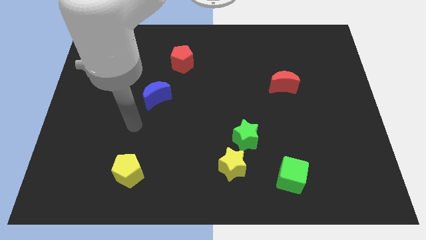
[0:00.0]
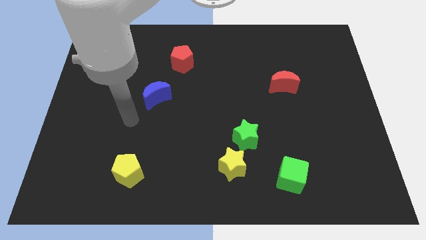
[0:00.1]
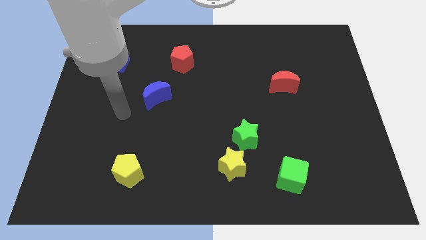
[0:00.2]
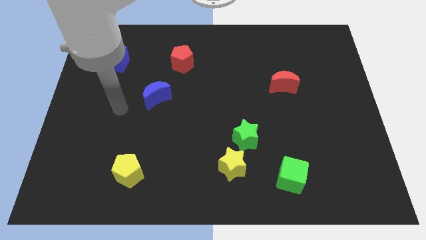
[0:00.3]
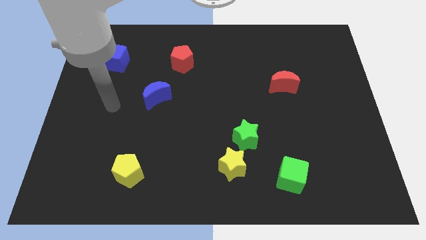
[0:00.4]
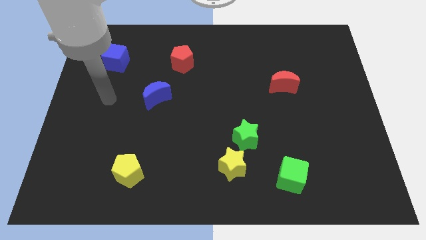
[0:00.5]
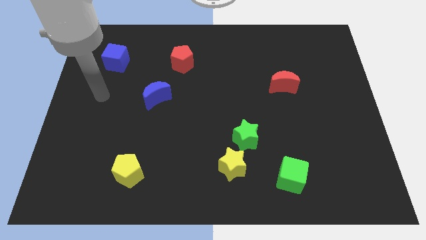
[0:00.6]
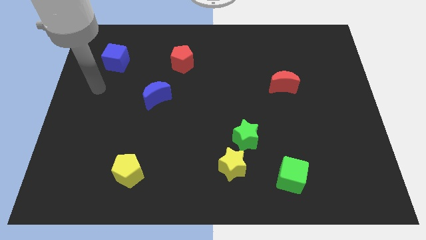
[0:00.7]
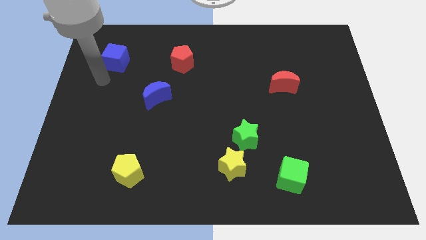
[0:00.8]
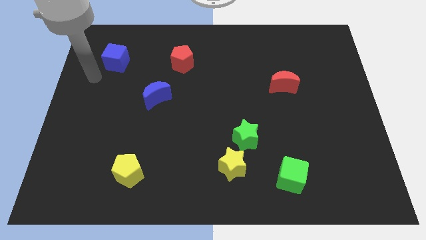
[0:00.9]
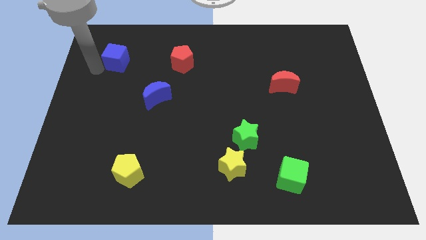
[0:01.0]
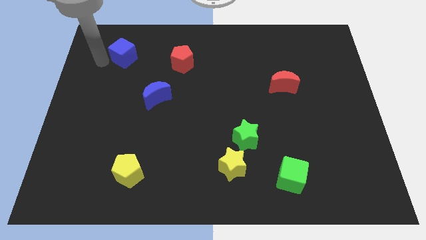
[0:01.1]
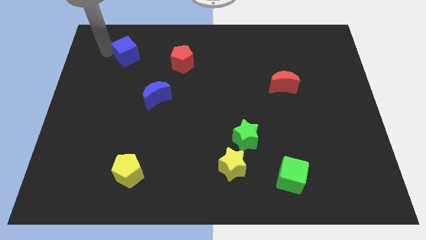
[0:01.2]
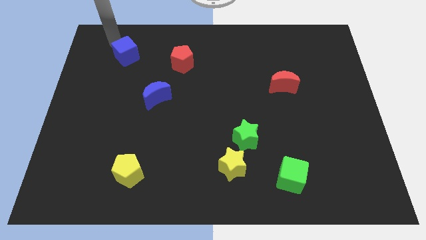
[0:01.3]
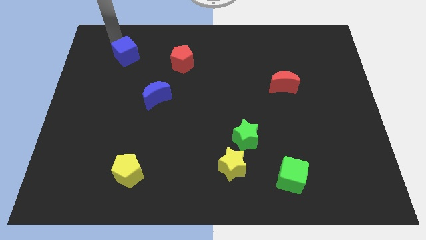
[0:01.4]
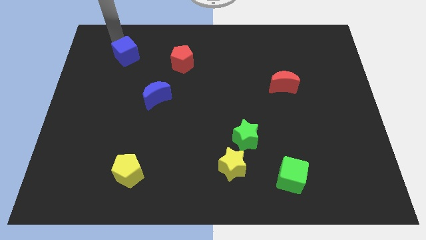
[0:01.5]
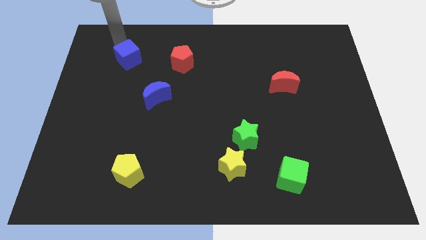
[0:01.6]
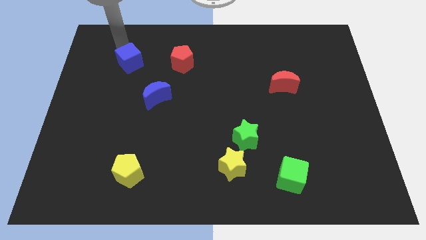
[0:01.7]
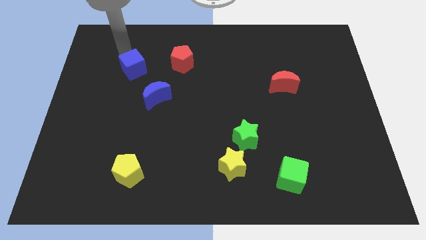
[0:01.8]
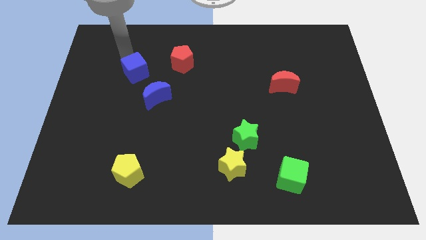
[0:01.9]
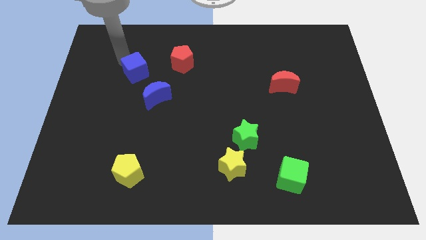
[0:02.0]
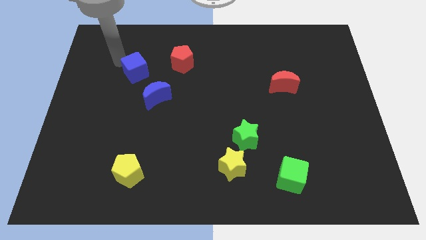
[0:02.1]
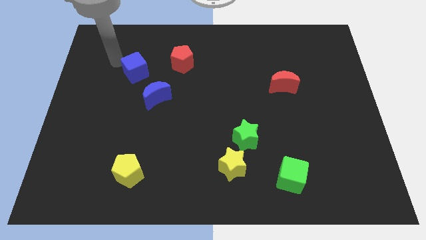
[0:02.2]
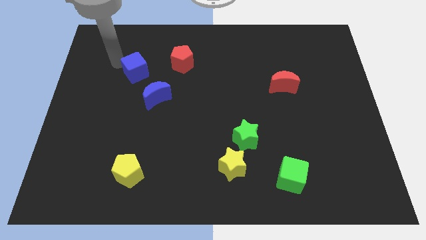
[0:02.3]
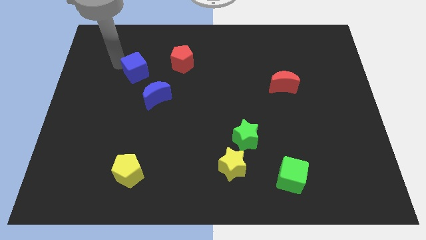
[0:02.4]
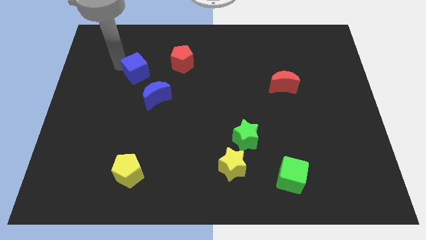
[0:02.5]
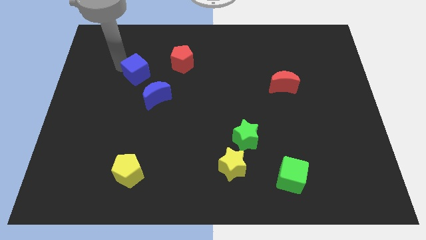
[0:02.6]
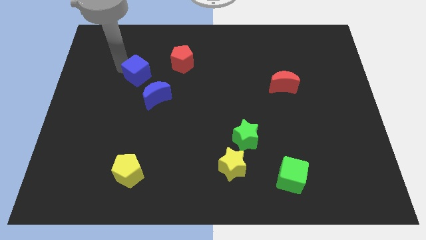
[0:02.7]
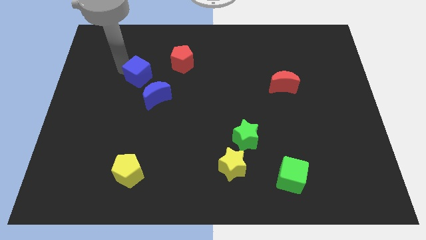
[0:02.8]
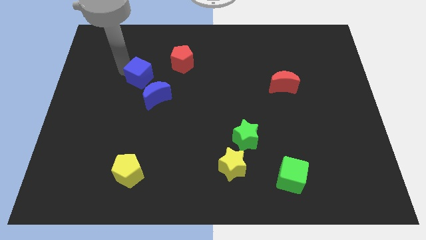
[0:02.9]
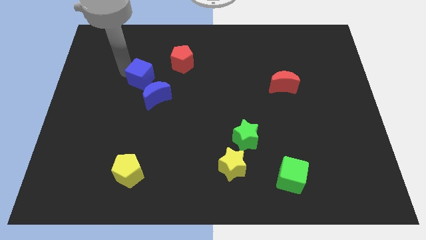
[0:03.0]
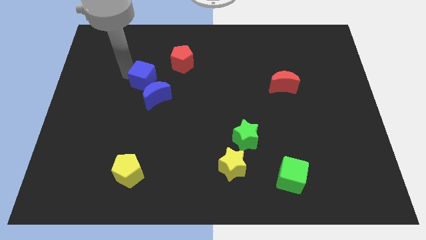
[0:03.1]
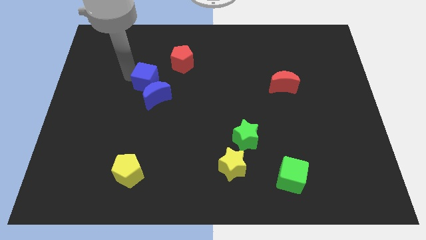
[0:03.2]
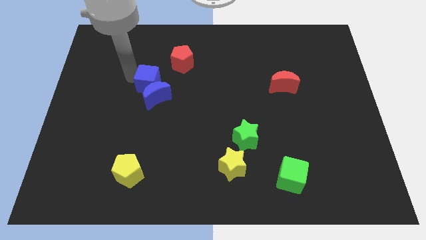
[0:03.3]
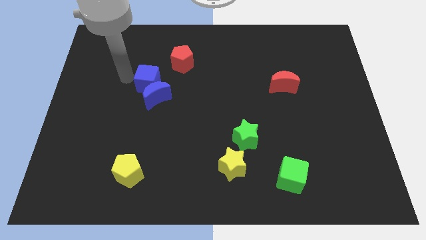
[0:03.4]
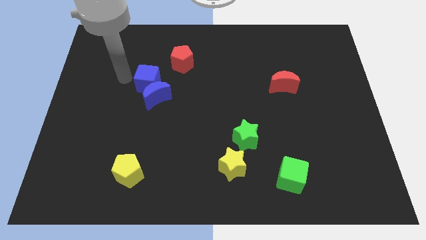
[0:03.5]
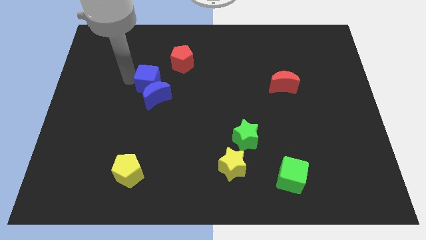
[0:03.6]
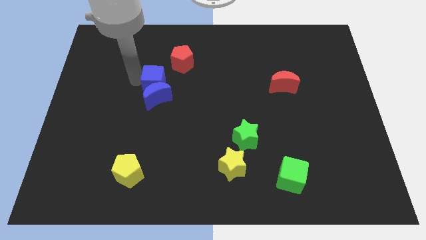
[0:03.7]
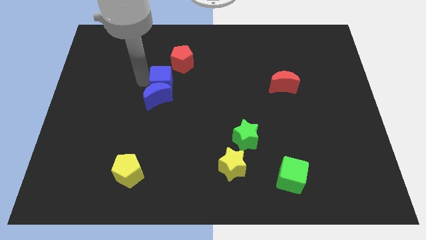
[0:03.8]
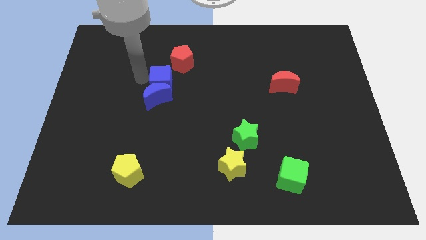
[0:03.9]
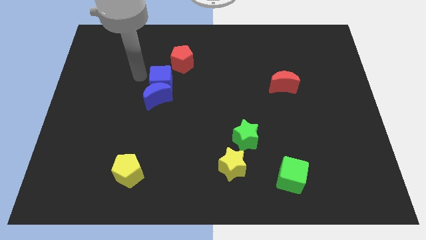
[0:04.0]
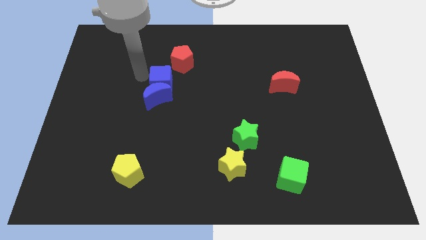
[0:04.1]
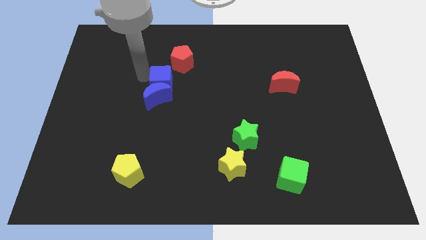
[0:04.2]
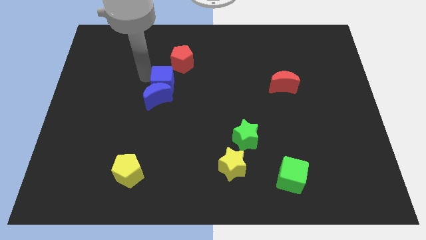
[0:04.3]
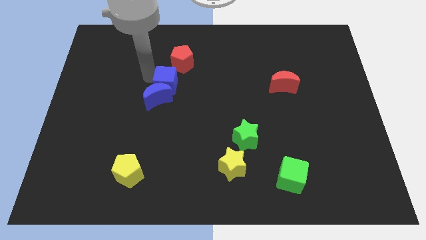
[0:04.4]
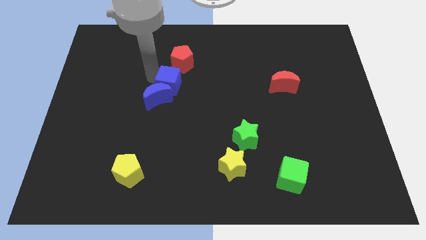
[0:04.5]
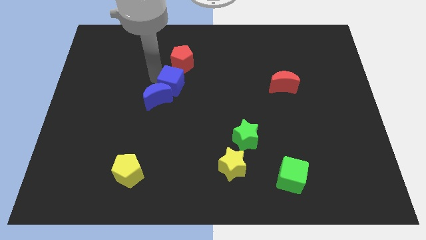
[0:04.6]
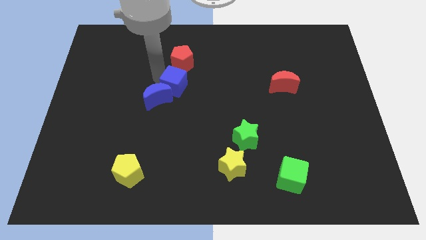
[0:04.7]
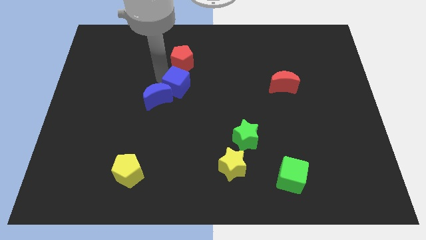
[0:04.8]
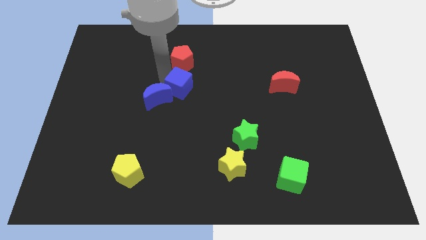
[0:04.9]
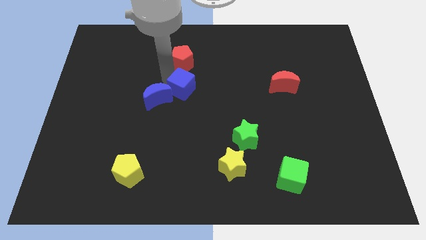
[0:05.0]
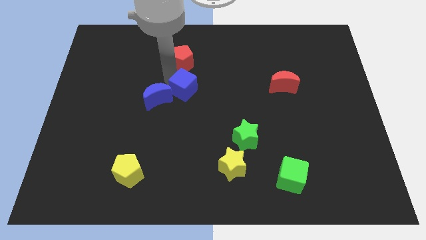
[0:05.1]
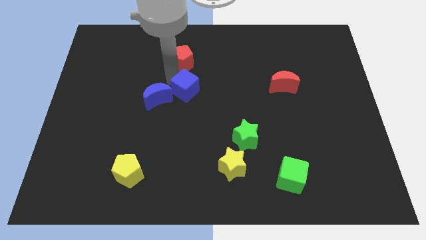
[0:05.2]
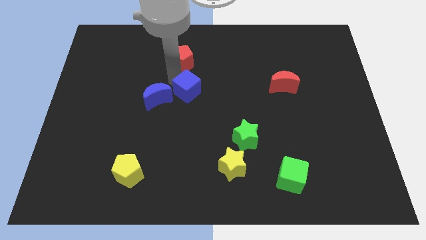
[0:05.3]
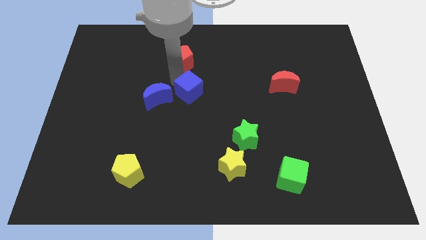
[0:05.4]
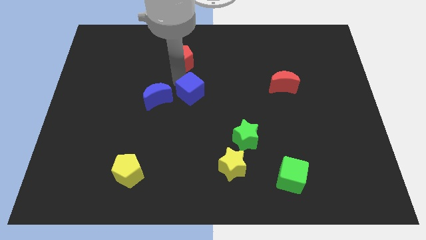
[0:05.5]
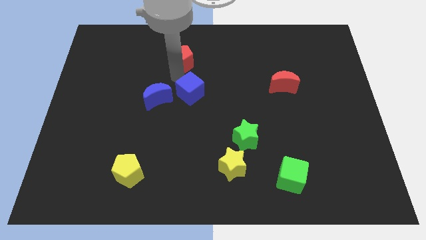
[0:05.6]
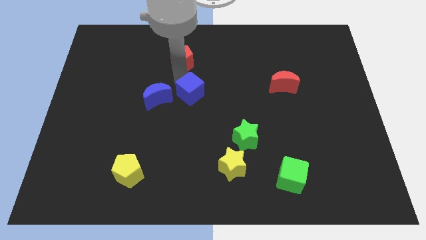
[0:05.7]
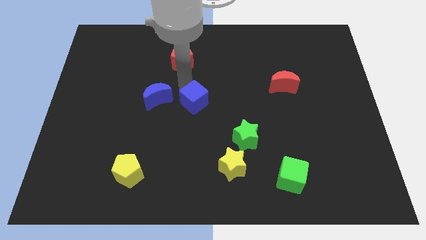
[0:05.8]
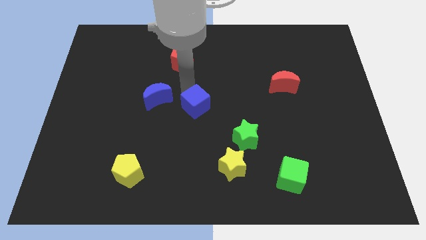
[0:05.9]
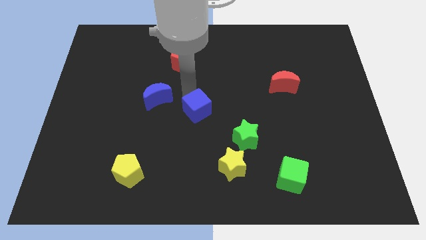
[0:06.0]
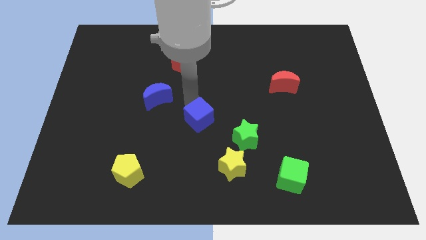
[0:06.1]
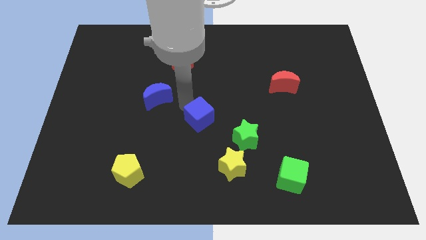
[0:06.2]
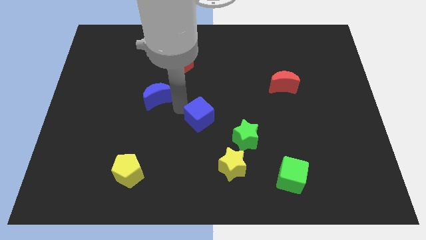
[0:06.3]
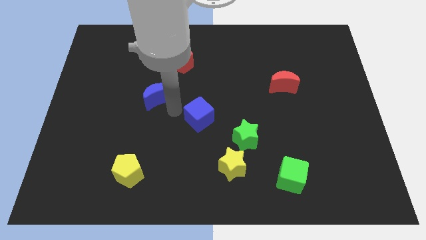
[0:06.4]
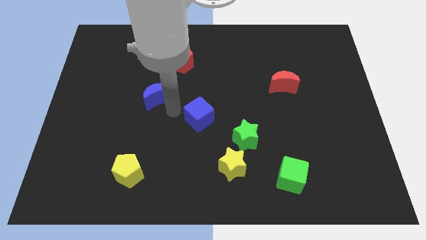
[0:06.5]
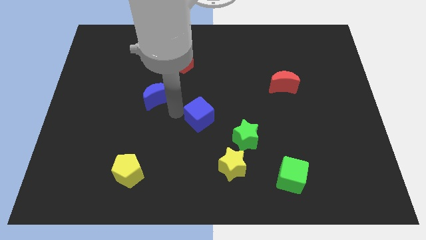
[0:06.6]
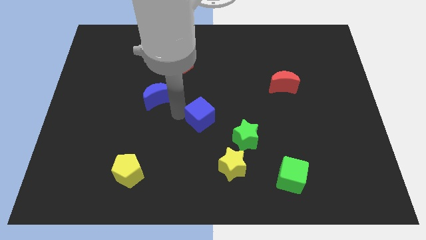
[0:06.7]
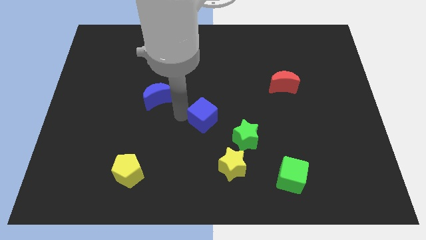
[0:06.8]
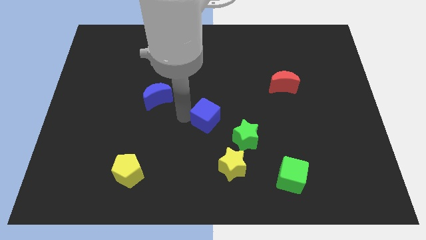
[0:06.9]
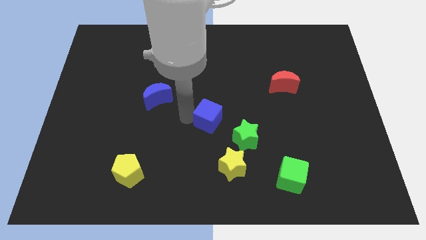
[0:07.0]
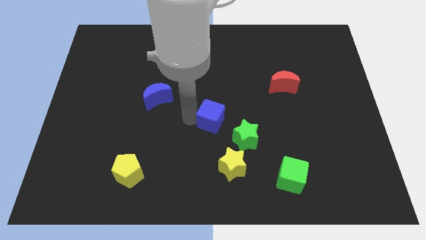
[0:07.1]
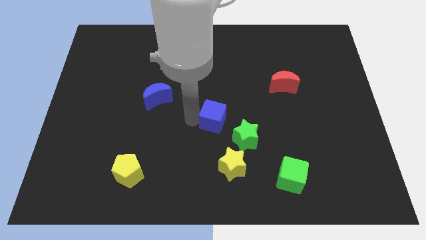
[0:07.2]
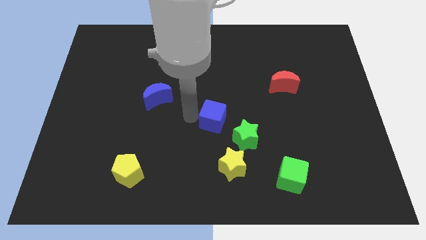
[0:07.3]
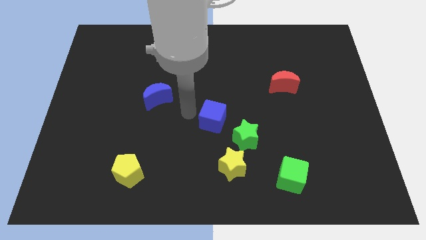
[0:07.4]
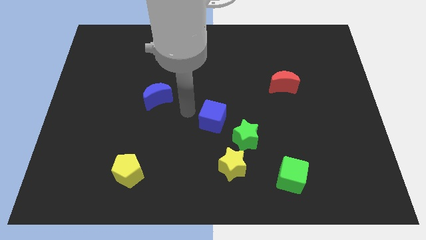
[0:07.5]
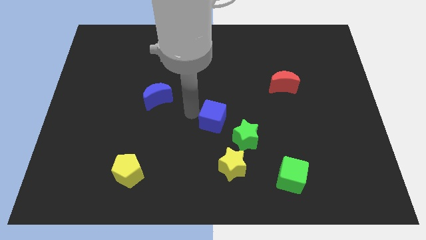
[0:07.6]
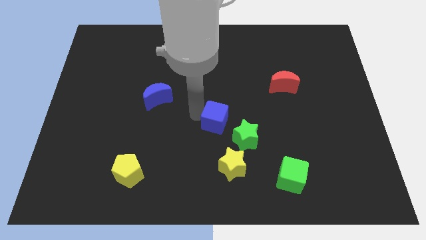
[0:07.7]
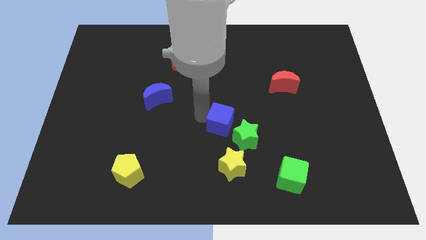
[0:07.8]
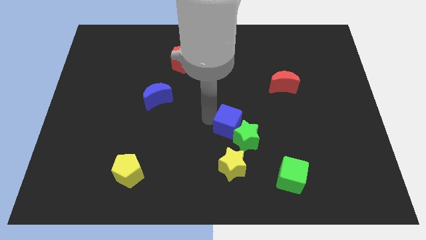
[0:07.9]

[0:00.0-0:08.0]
put the blue cube towards the green star
